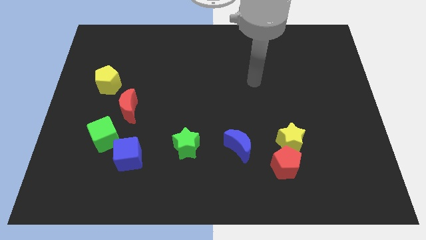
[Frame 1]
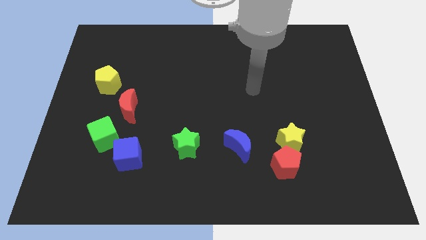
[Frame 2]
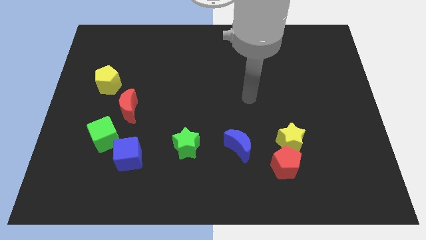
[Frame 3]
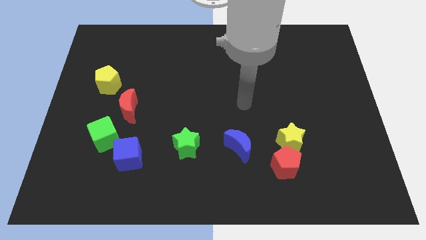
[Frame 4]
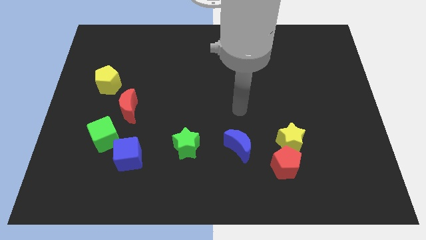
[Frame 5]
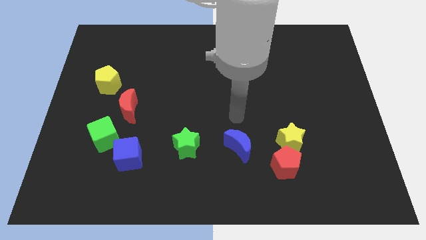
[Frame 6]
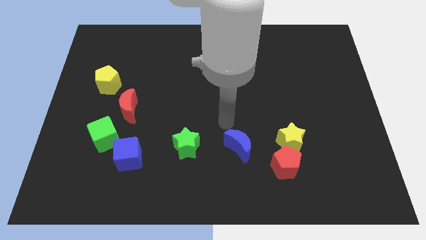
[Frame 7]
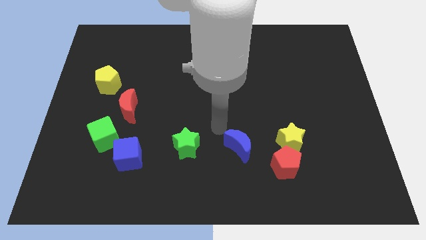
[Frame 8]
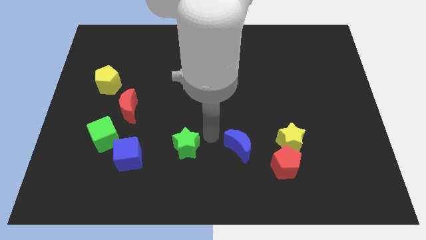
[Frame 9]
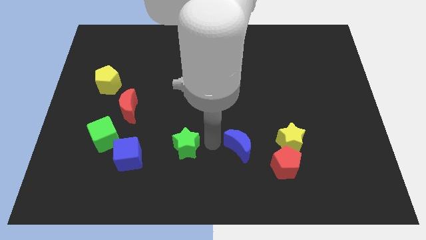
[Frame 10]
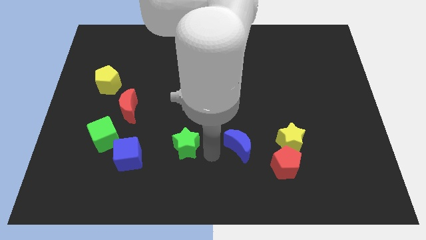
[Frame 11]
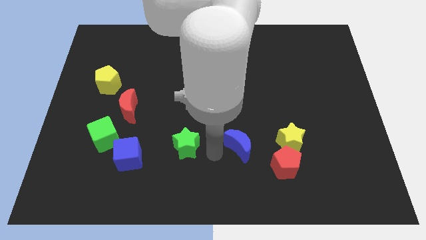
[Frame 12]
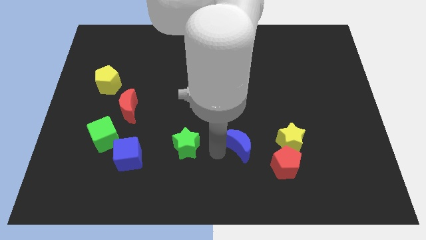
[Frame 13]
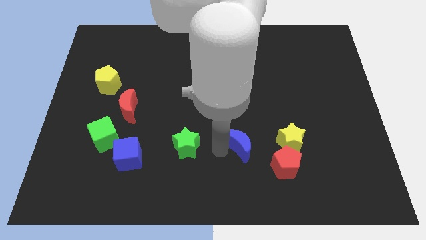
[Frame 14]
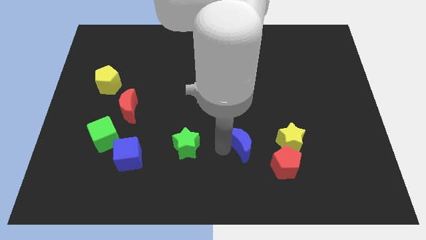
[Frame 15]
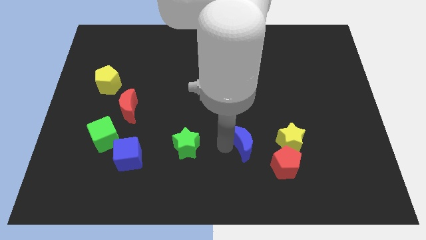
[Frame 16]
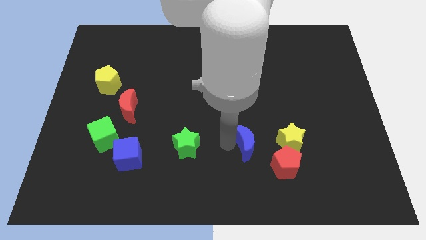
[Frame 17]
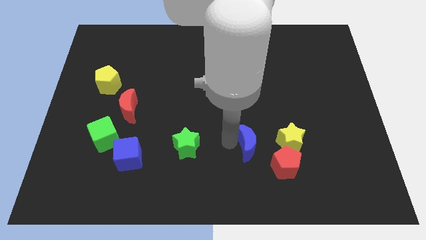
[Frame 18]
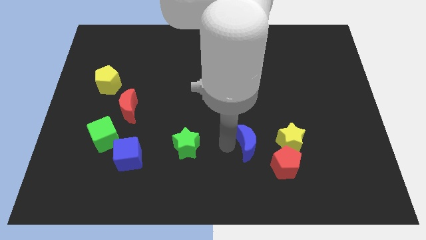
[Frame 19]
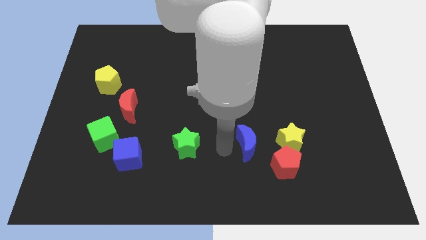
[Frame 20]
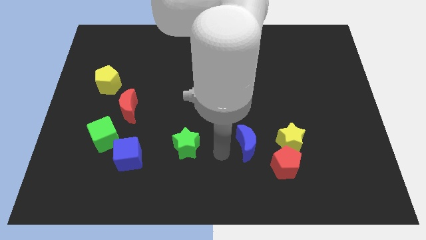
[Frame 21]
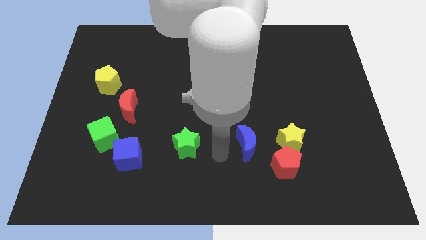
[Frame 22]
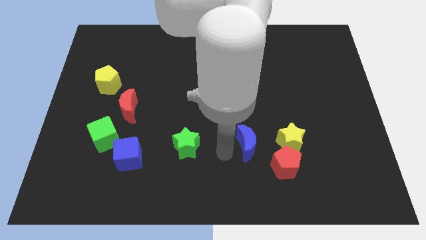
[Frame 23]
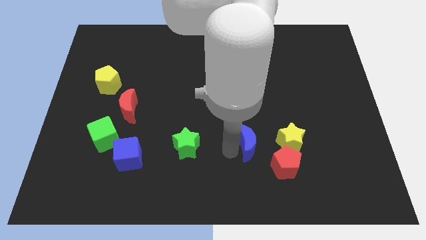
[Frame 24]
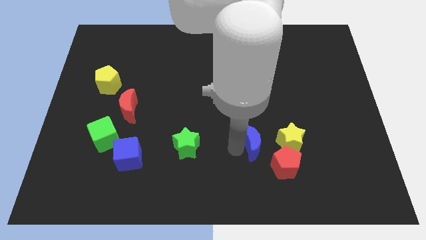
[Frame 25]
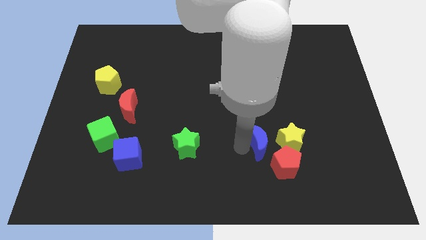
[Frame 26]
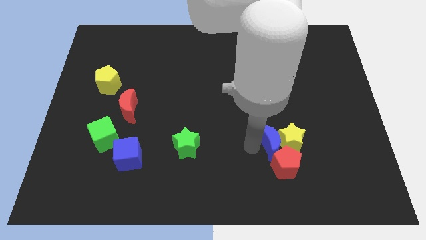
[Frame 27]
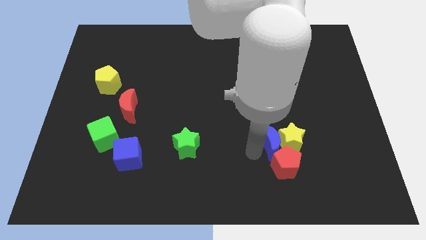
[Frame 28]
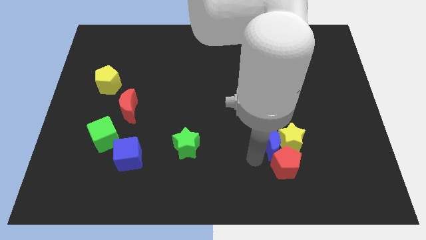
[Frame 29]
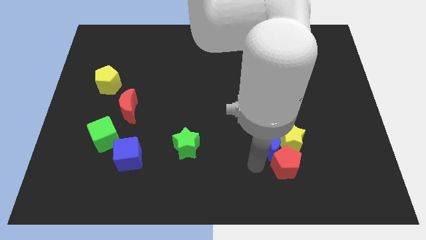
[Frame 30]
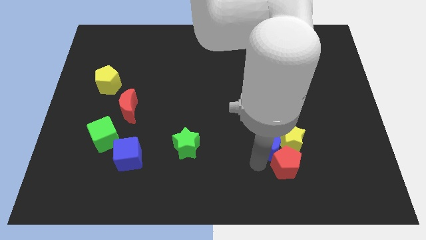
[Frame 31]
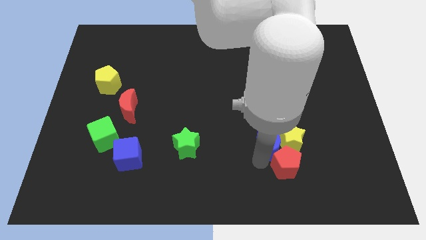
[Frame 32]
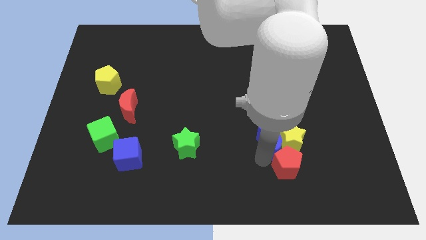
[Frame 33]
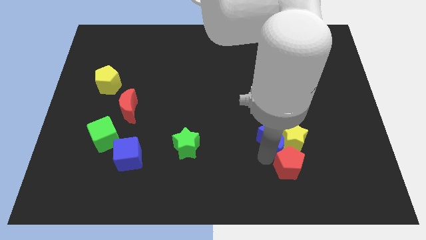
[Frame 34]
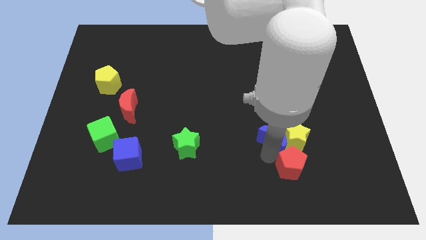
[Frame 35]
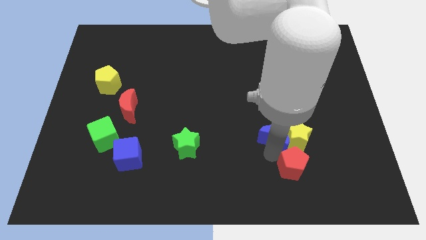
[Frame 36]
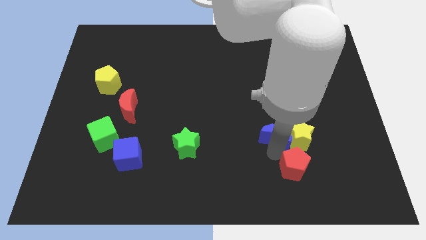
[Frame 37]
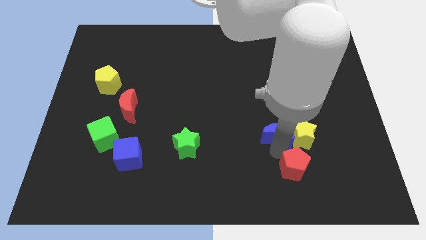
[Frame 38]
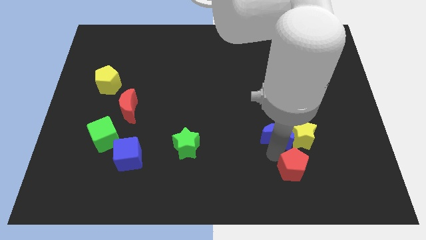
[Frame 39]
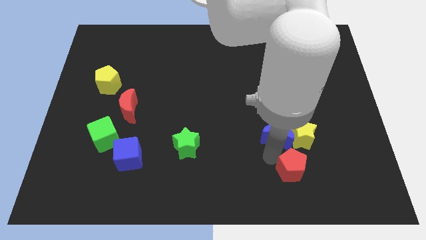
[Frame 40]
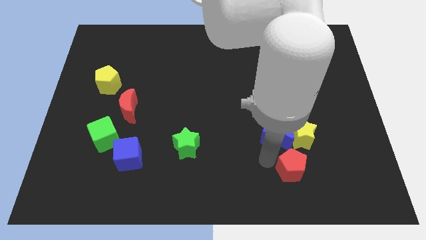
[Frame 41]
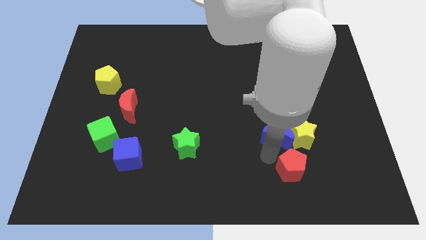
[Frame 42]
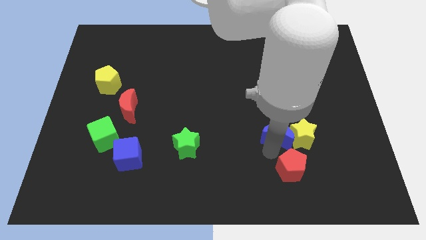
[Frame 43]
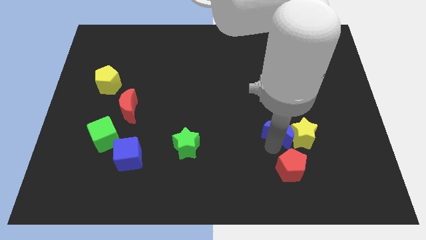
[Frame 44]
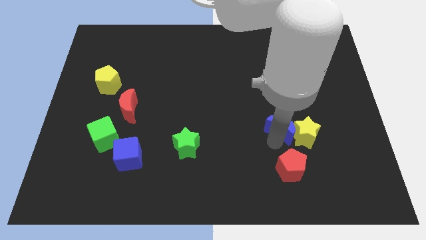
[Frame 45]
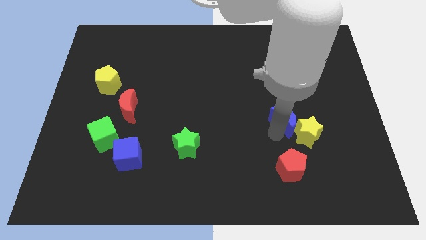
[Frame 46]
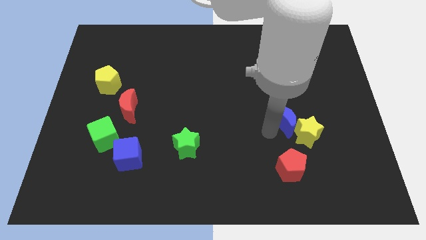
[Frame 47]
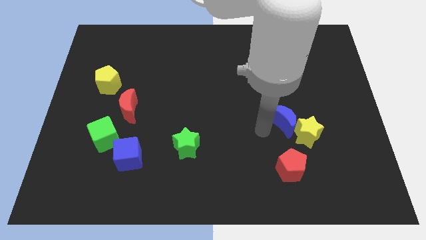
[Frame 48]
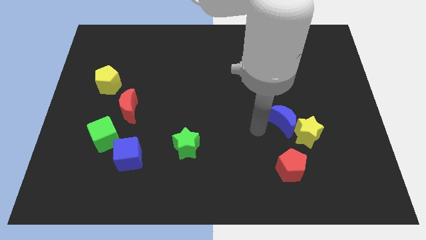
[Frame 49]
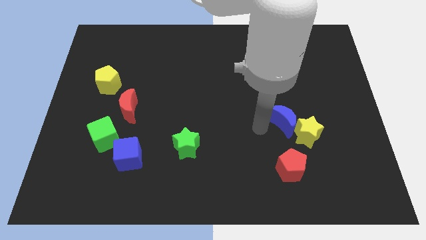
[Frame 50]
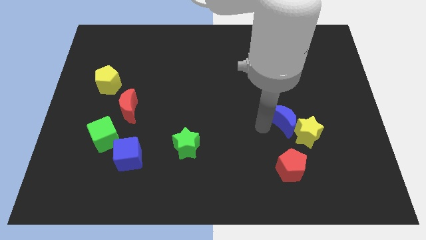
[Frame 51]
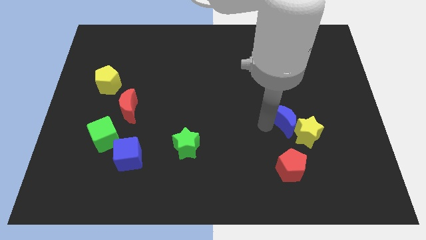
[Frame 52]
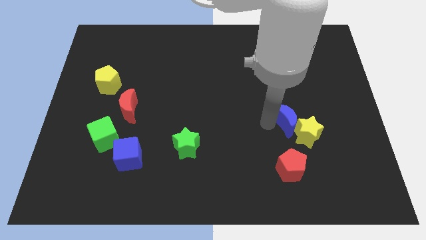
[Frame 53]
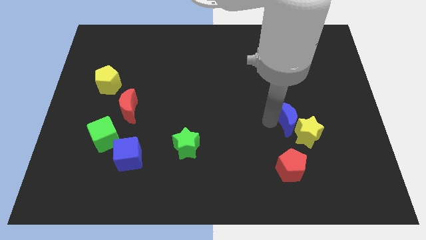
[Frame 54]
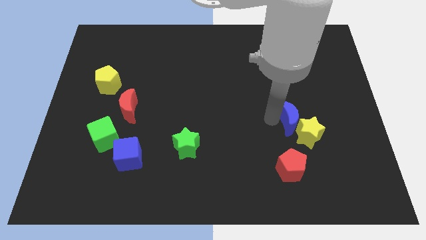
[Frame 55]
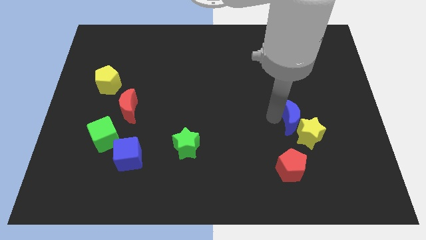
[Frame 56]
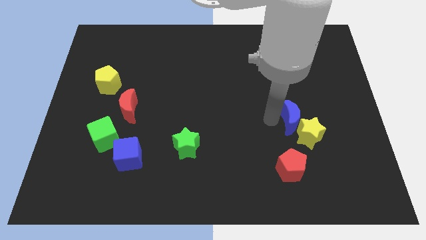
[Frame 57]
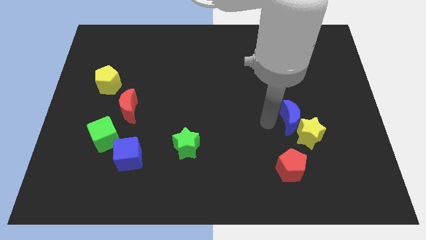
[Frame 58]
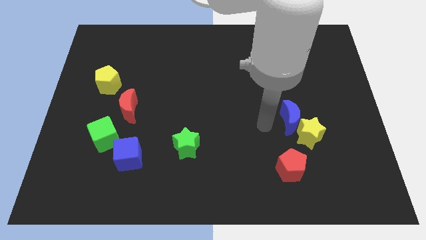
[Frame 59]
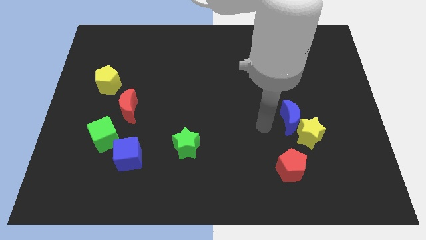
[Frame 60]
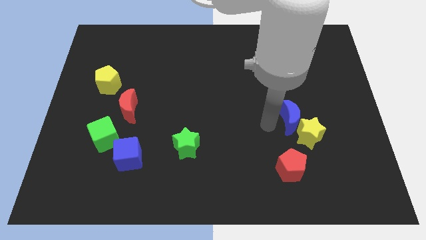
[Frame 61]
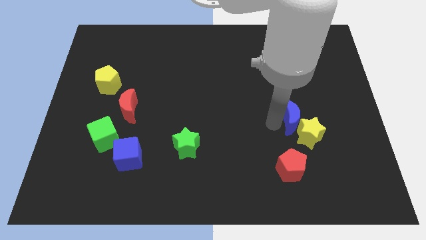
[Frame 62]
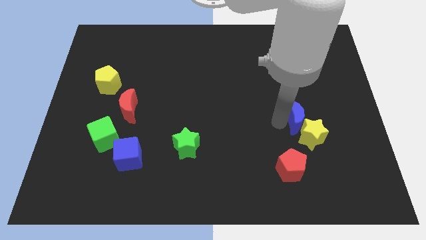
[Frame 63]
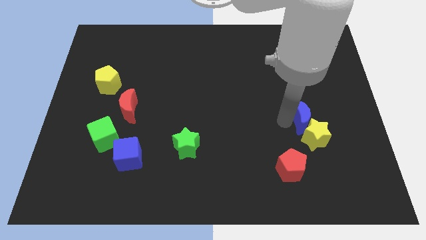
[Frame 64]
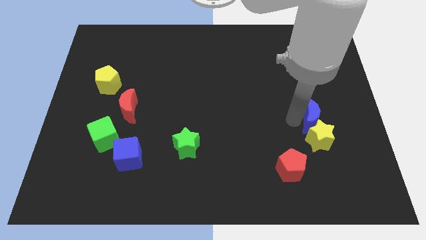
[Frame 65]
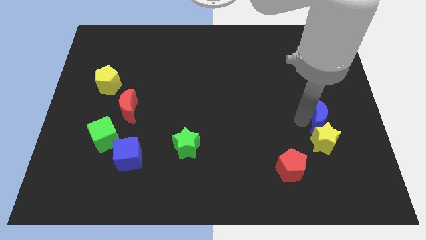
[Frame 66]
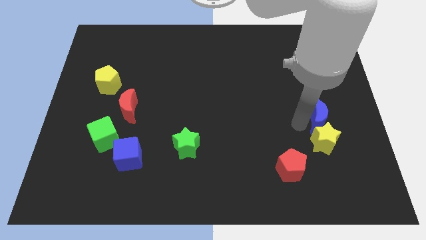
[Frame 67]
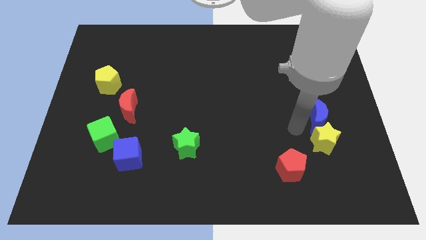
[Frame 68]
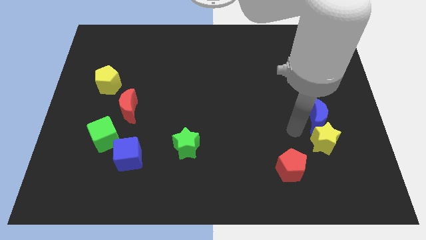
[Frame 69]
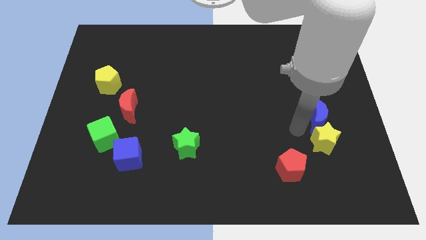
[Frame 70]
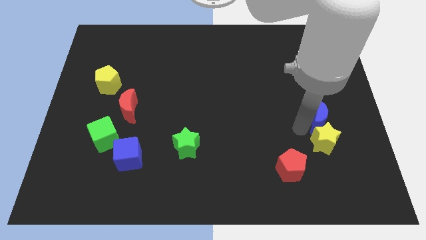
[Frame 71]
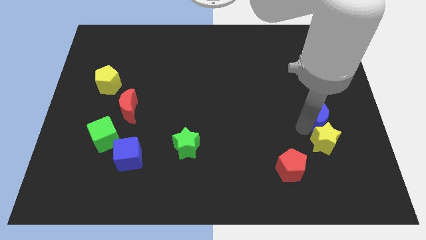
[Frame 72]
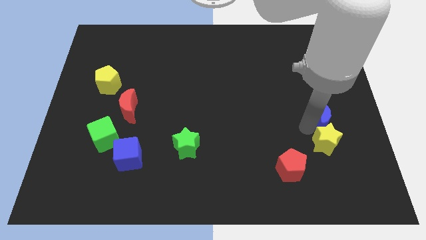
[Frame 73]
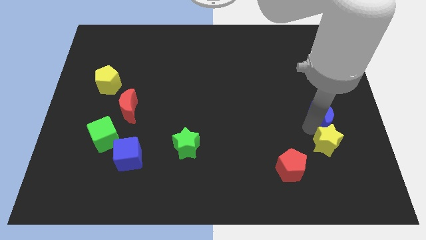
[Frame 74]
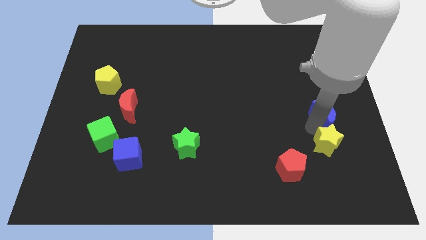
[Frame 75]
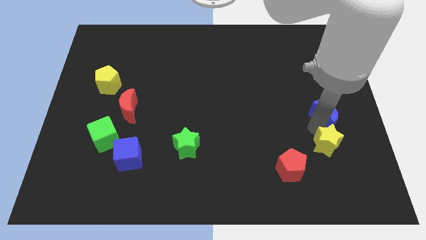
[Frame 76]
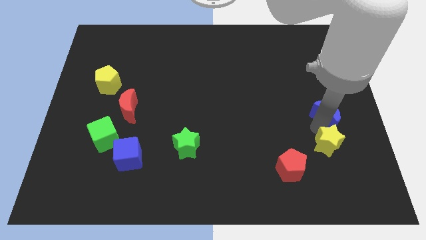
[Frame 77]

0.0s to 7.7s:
push the blue moon to the right side of the board
